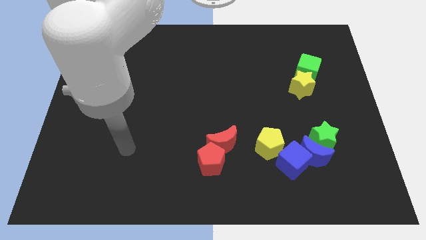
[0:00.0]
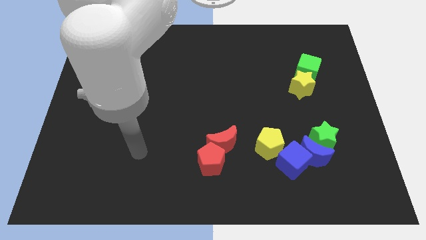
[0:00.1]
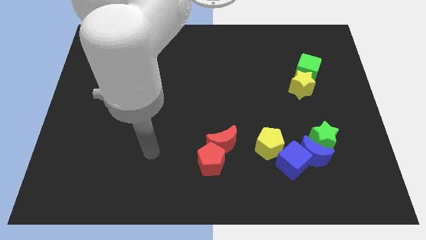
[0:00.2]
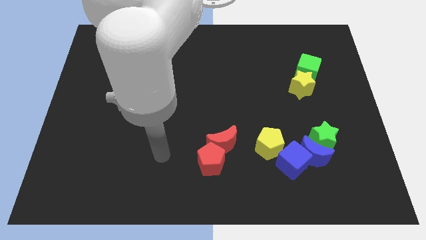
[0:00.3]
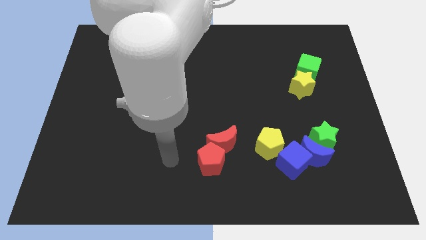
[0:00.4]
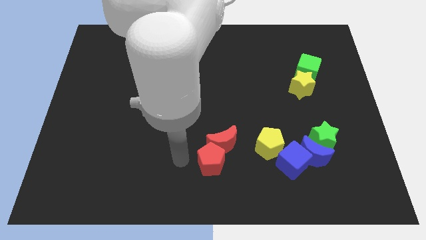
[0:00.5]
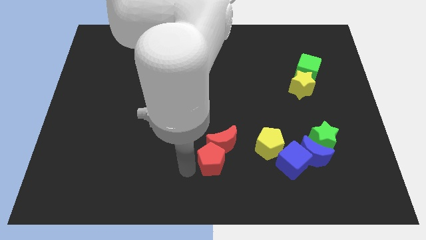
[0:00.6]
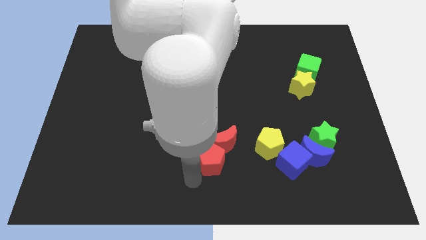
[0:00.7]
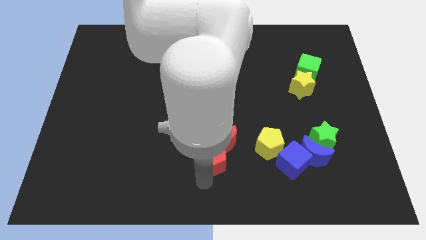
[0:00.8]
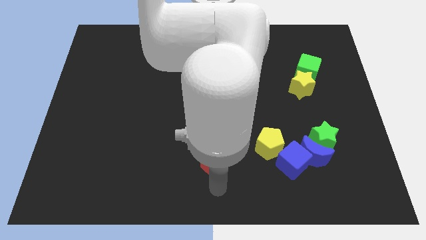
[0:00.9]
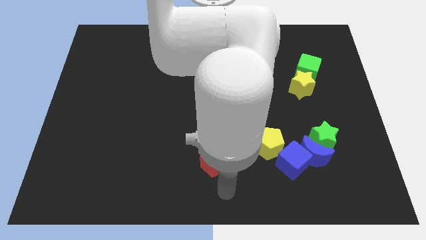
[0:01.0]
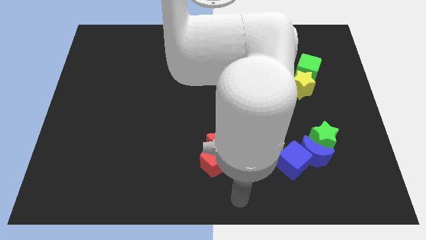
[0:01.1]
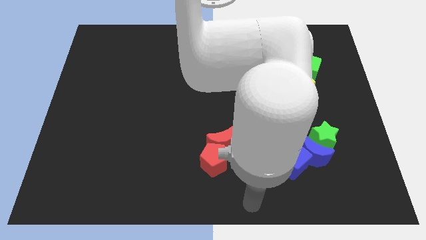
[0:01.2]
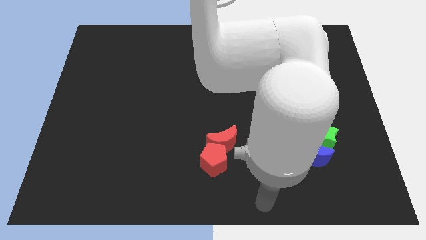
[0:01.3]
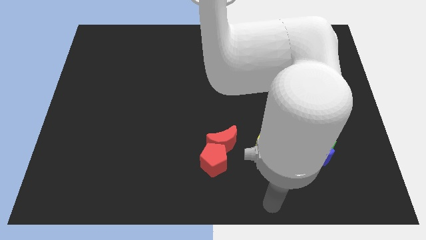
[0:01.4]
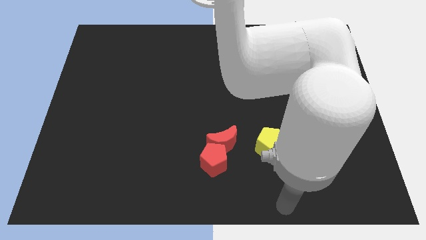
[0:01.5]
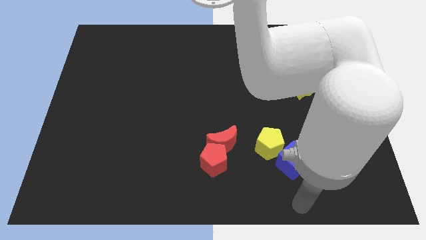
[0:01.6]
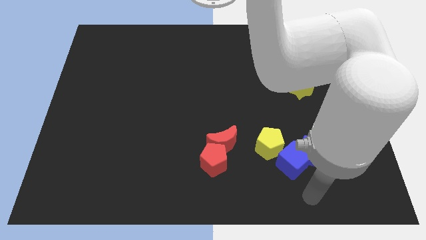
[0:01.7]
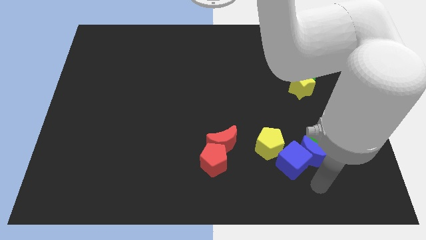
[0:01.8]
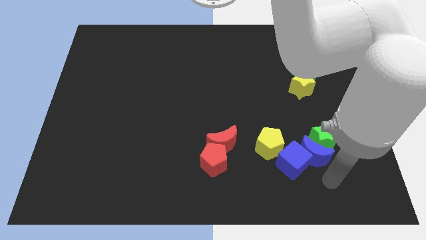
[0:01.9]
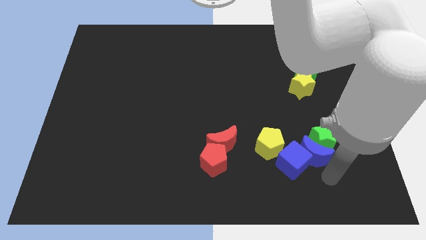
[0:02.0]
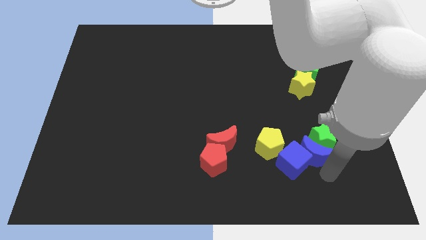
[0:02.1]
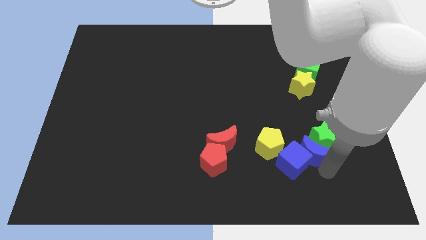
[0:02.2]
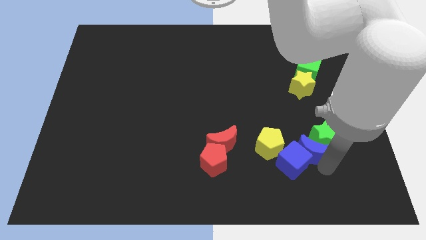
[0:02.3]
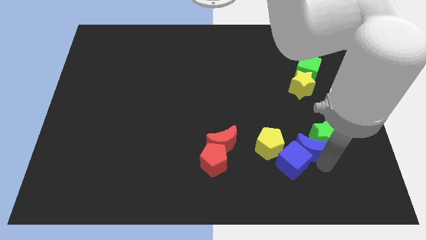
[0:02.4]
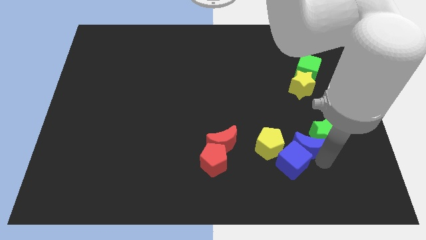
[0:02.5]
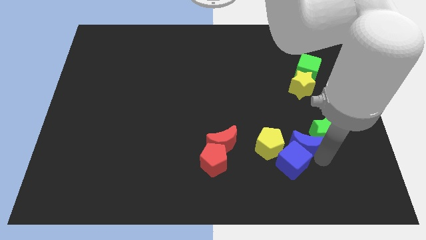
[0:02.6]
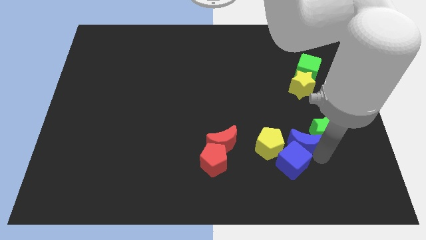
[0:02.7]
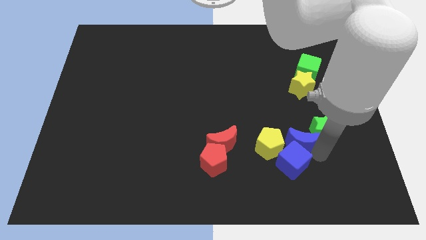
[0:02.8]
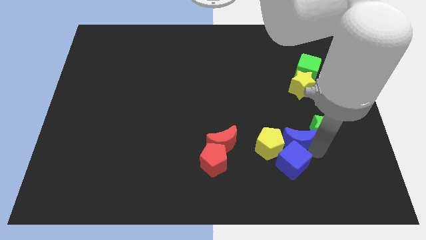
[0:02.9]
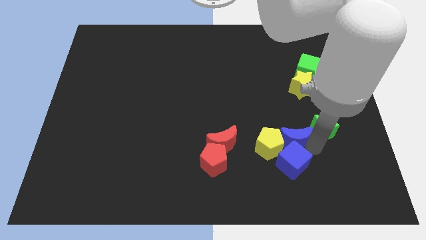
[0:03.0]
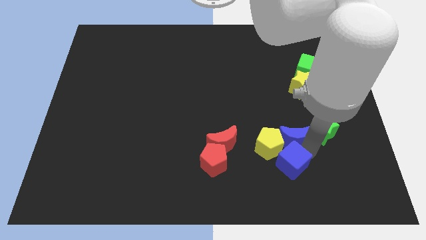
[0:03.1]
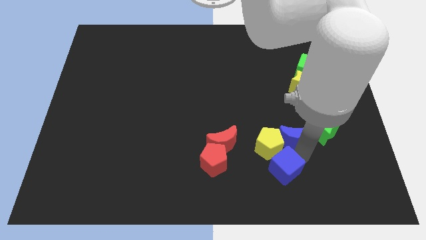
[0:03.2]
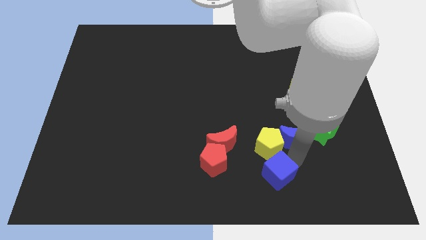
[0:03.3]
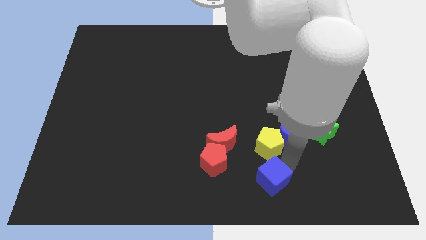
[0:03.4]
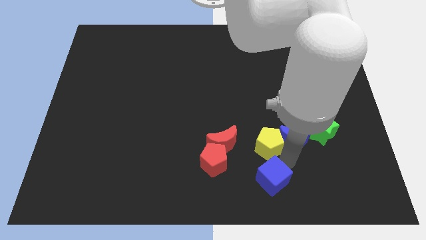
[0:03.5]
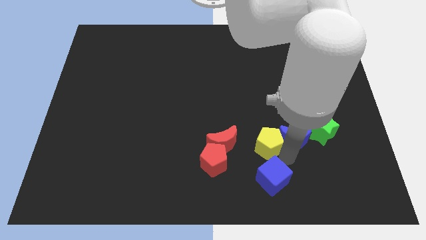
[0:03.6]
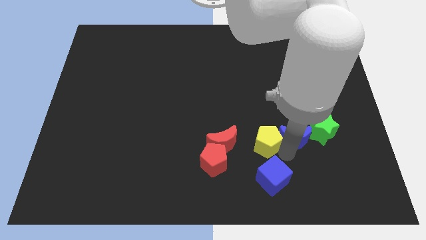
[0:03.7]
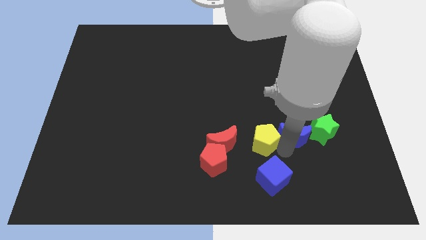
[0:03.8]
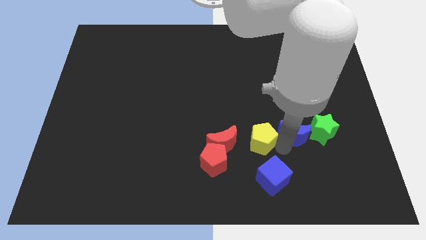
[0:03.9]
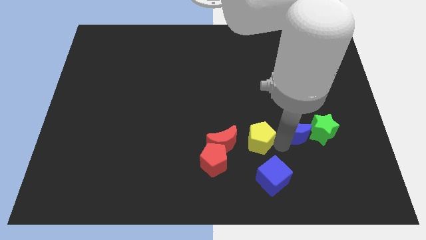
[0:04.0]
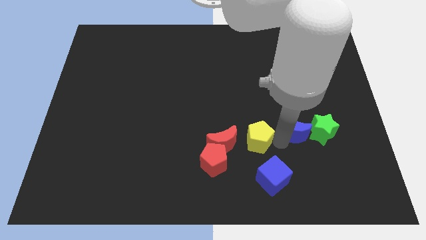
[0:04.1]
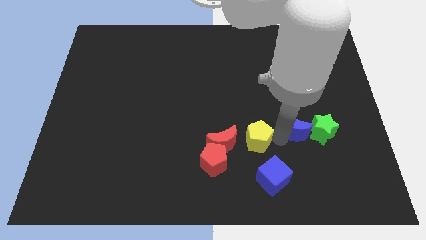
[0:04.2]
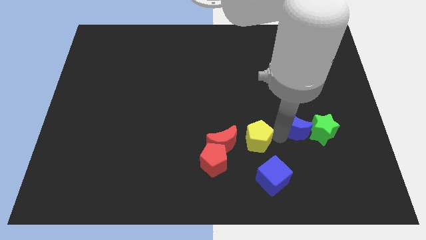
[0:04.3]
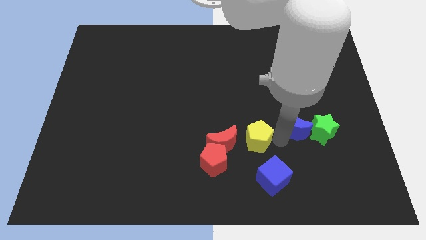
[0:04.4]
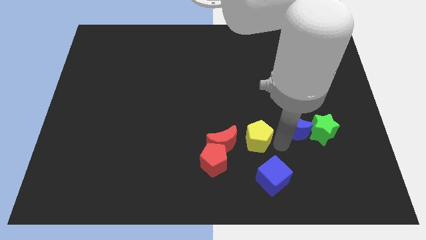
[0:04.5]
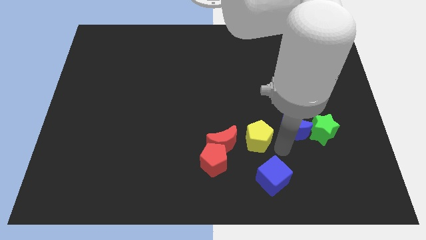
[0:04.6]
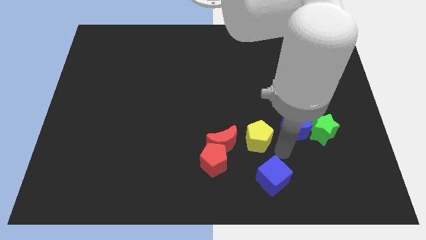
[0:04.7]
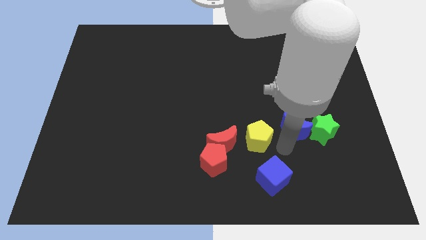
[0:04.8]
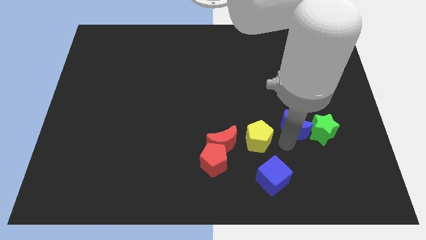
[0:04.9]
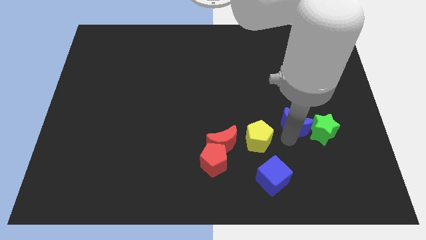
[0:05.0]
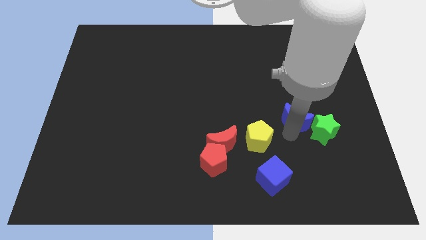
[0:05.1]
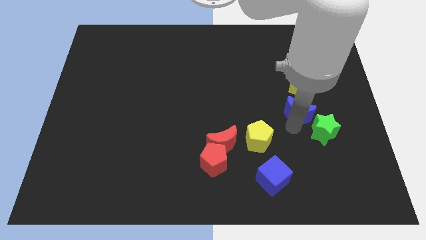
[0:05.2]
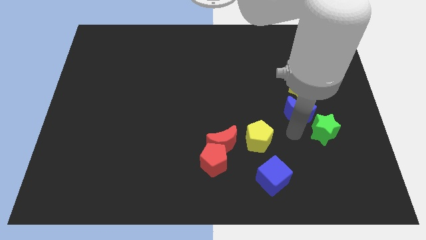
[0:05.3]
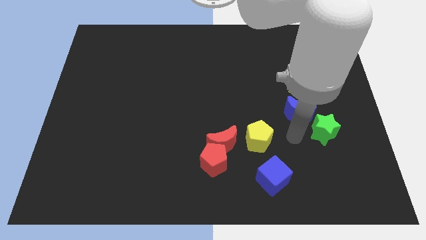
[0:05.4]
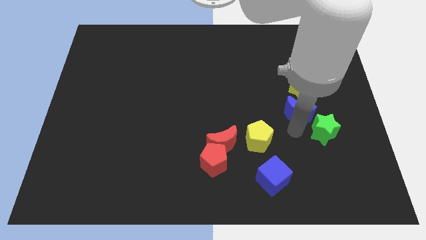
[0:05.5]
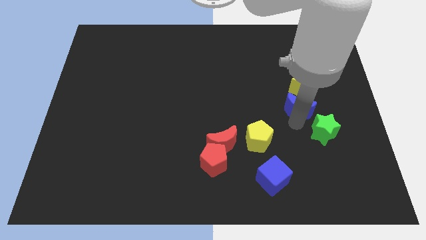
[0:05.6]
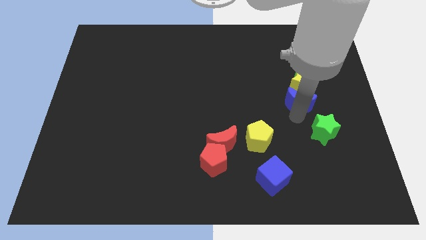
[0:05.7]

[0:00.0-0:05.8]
slide the blue moon to the yellow star

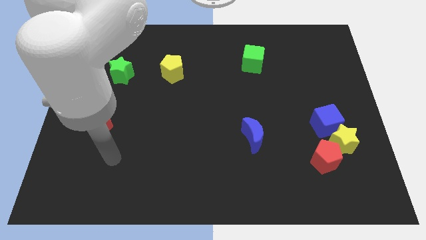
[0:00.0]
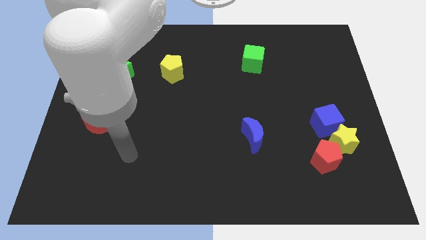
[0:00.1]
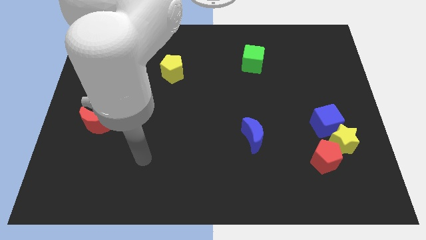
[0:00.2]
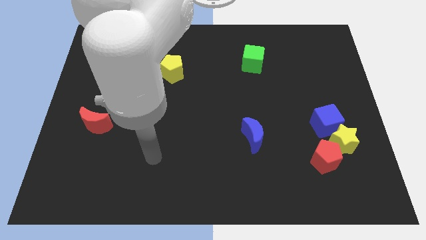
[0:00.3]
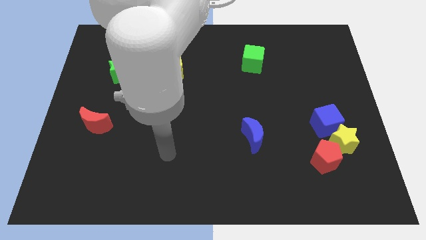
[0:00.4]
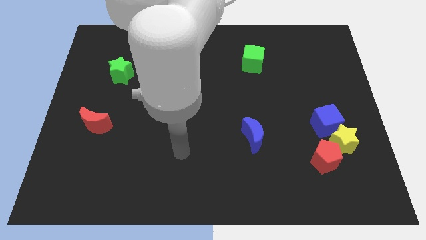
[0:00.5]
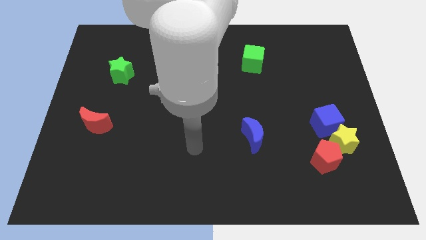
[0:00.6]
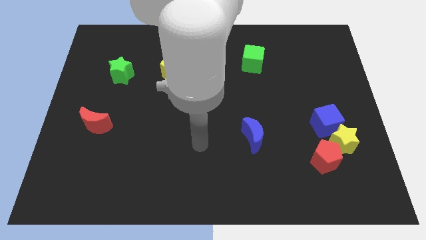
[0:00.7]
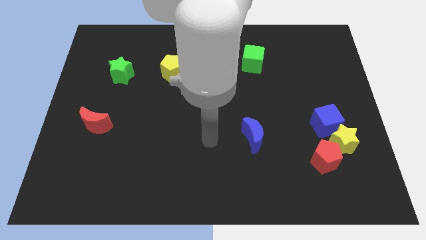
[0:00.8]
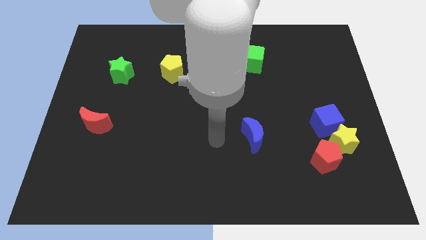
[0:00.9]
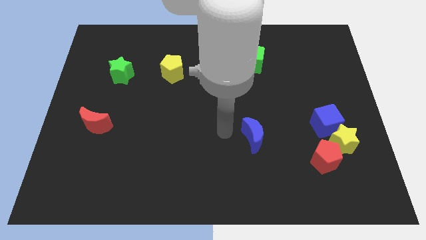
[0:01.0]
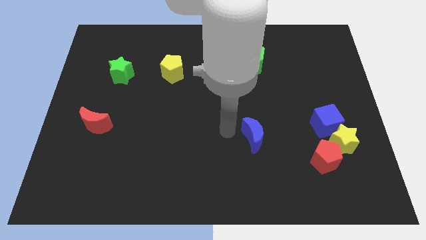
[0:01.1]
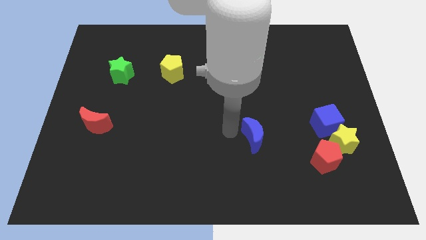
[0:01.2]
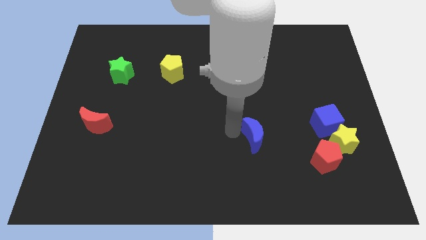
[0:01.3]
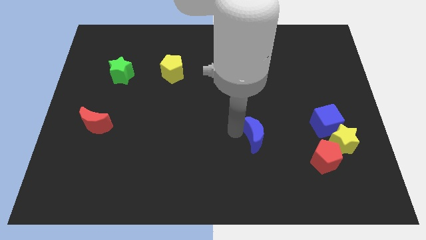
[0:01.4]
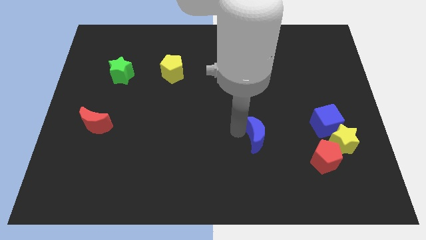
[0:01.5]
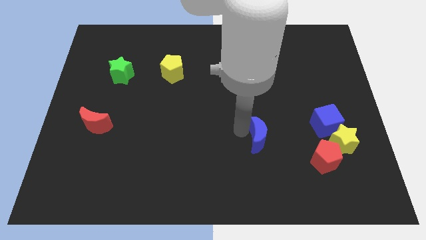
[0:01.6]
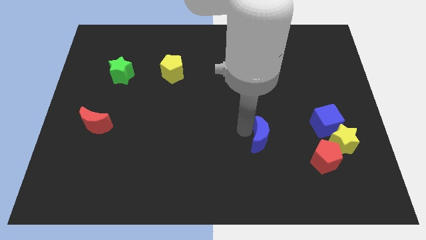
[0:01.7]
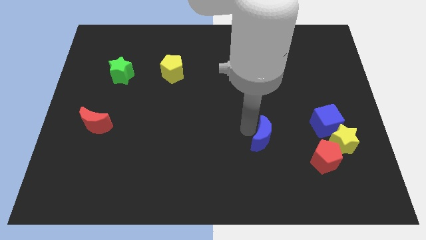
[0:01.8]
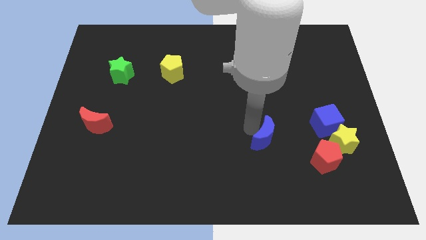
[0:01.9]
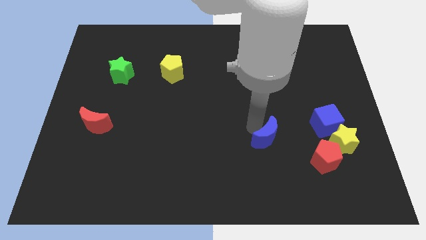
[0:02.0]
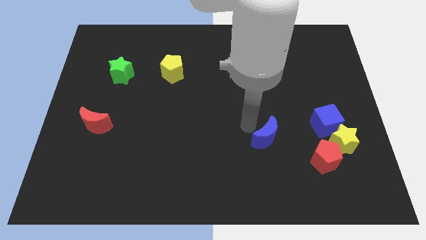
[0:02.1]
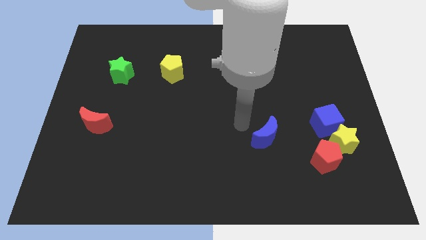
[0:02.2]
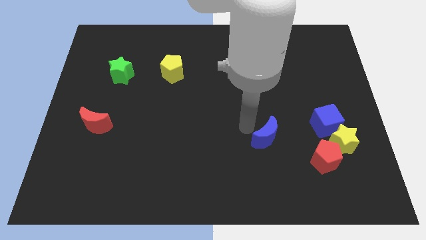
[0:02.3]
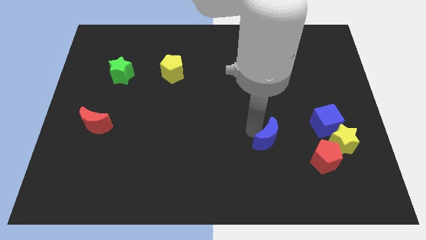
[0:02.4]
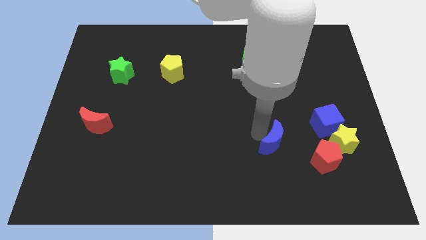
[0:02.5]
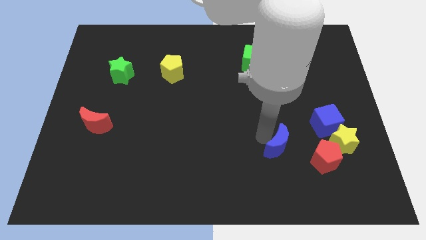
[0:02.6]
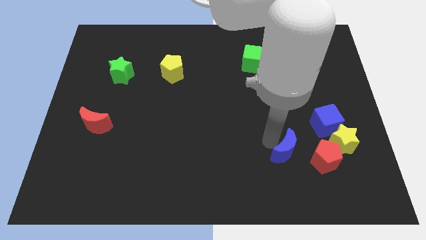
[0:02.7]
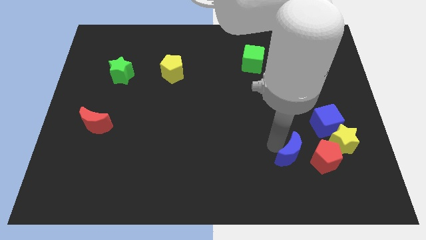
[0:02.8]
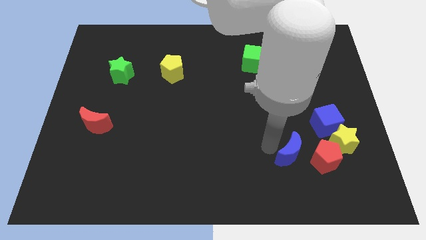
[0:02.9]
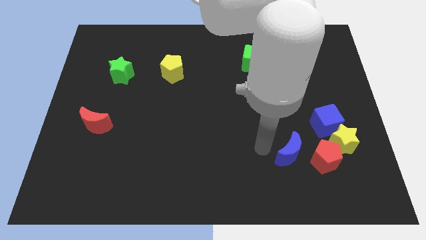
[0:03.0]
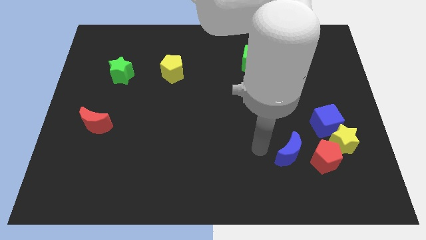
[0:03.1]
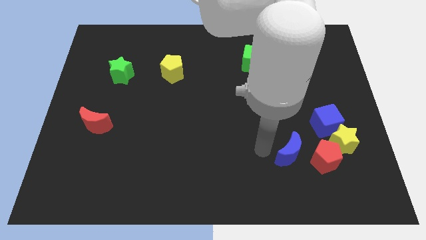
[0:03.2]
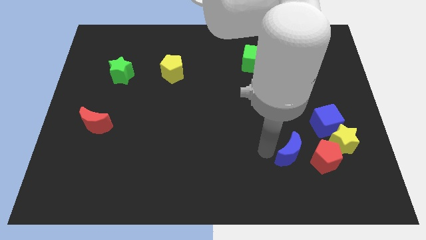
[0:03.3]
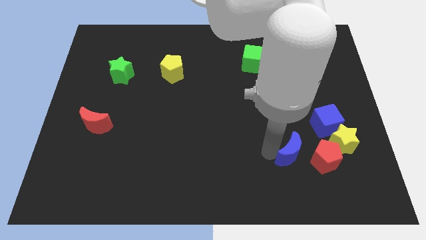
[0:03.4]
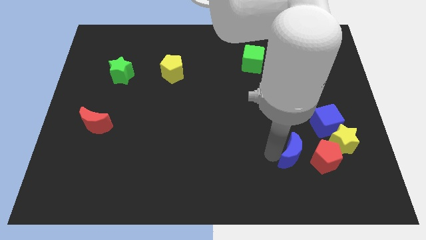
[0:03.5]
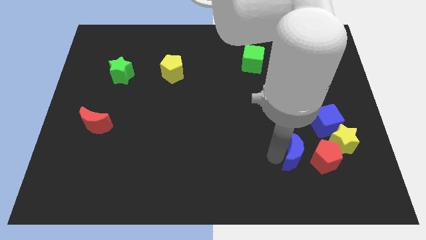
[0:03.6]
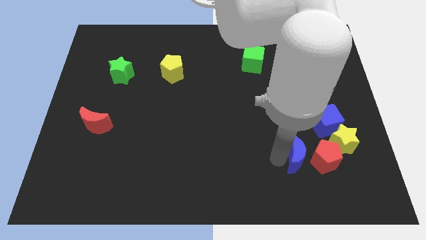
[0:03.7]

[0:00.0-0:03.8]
push the blue moon close to the red pentagon
